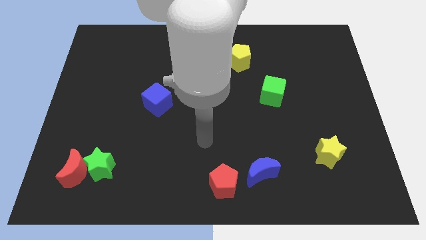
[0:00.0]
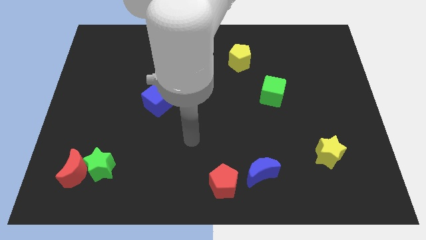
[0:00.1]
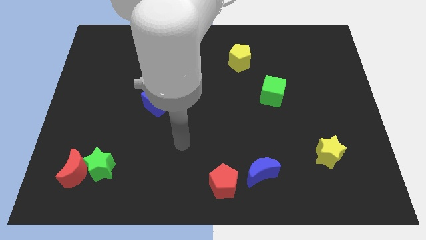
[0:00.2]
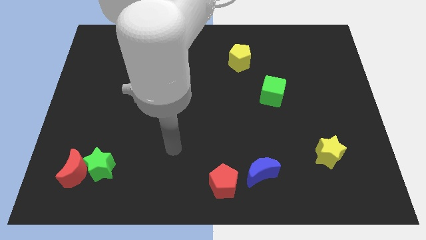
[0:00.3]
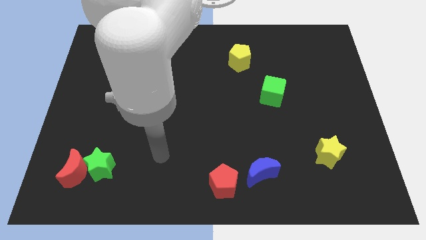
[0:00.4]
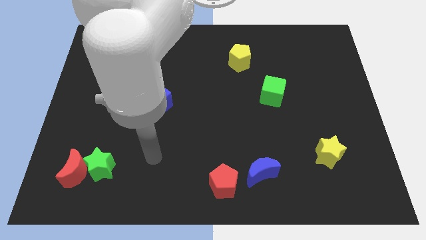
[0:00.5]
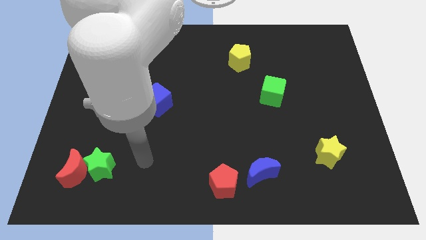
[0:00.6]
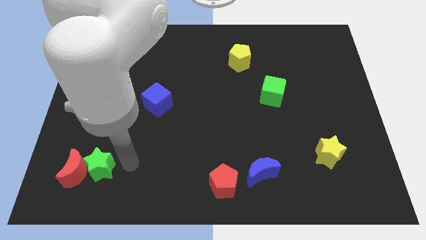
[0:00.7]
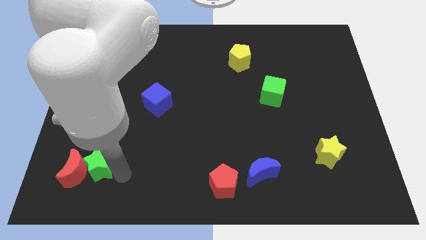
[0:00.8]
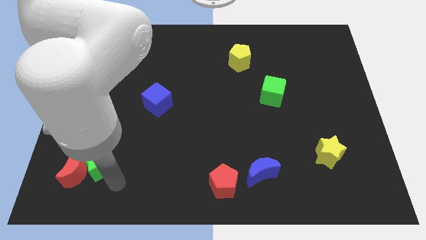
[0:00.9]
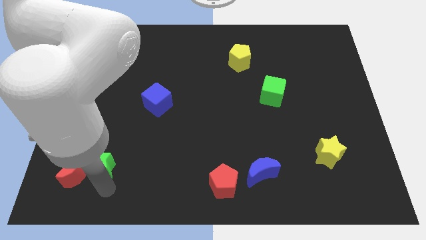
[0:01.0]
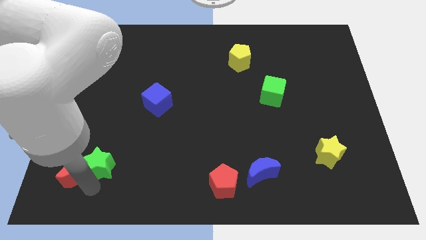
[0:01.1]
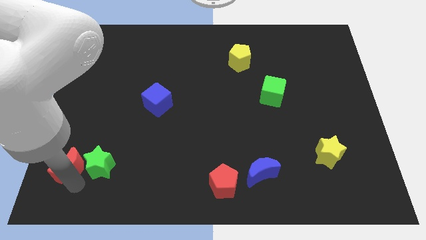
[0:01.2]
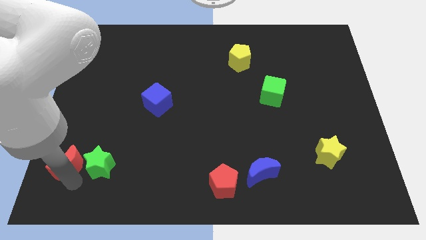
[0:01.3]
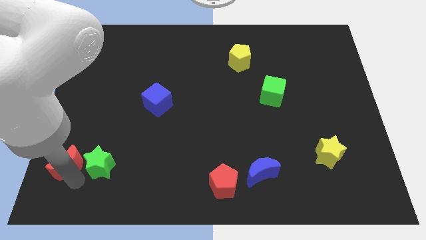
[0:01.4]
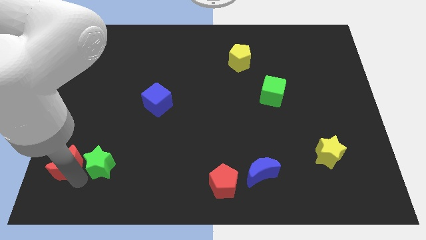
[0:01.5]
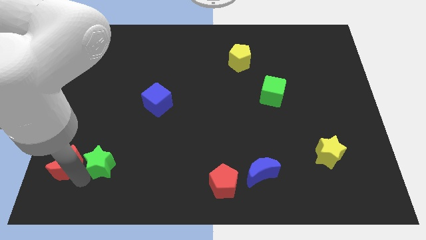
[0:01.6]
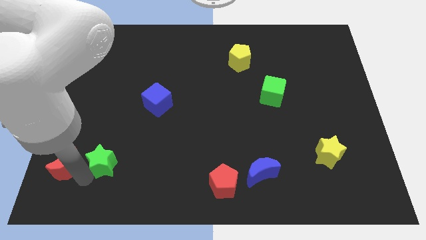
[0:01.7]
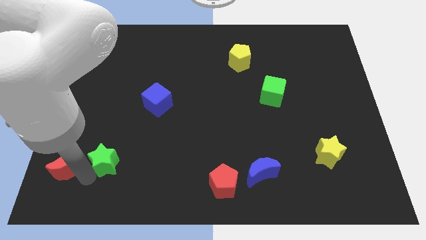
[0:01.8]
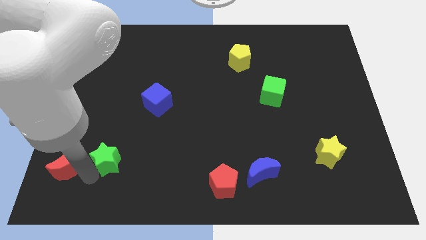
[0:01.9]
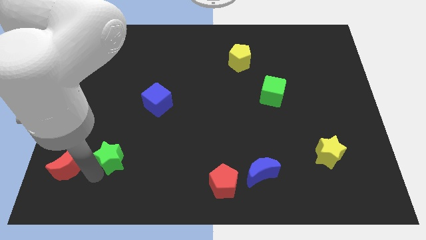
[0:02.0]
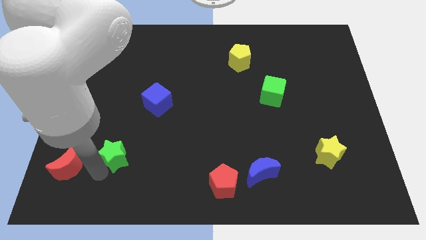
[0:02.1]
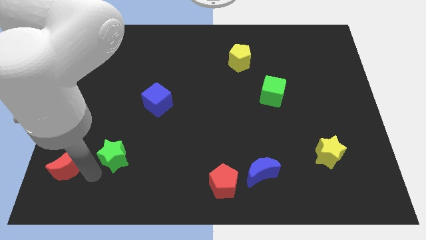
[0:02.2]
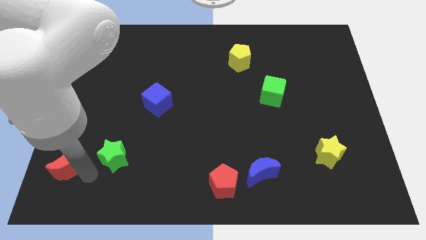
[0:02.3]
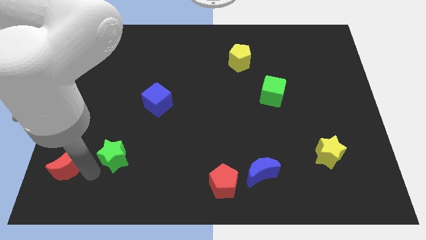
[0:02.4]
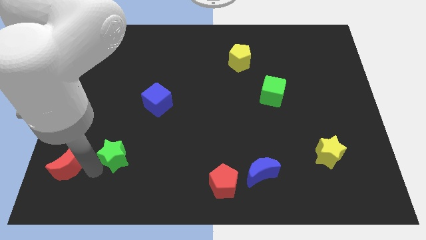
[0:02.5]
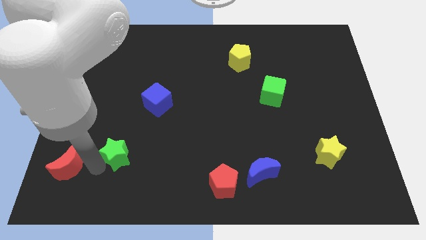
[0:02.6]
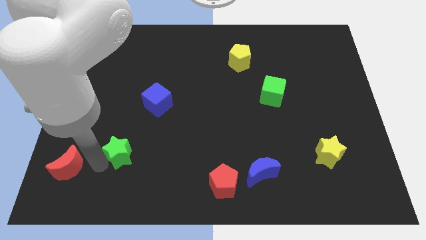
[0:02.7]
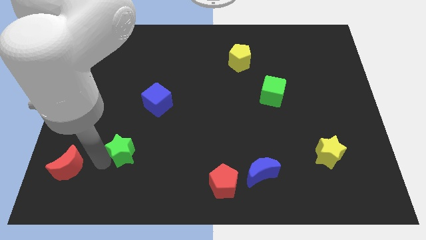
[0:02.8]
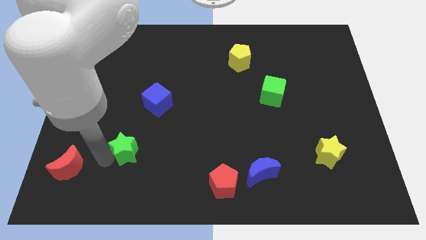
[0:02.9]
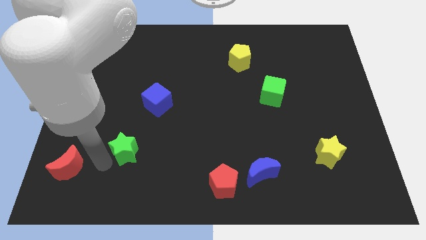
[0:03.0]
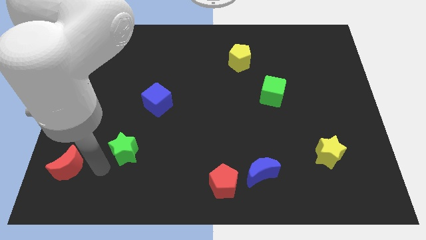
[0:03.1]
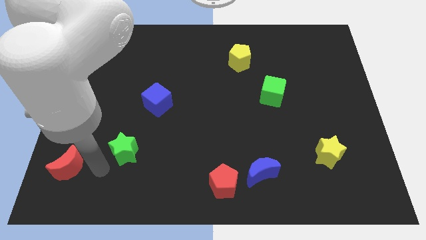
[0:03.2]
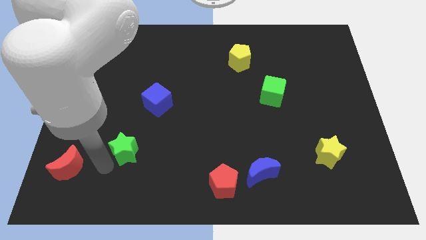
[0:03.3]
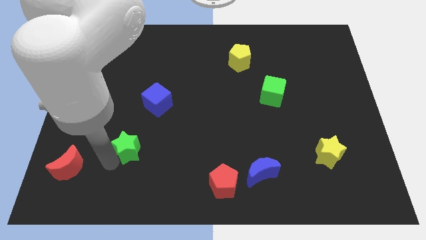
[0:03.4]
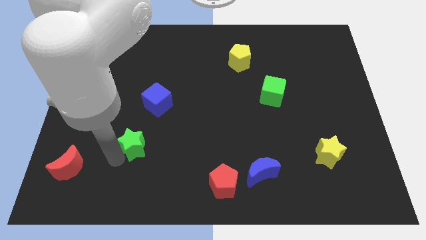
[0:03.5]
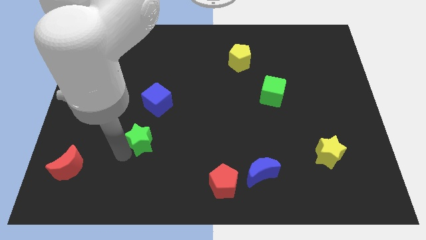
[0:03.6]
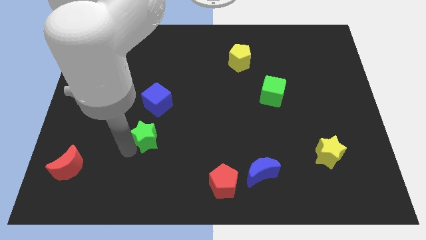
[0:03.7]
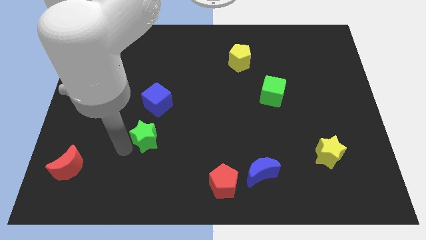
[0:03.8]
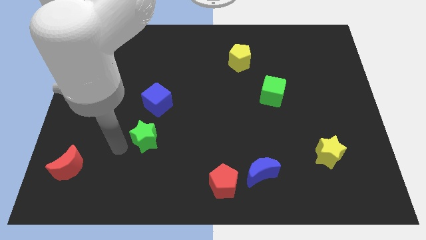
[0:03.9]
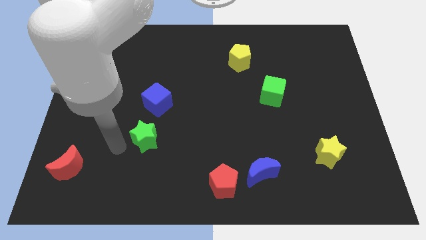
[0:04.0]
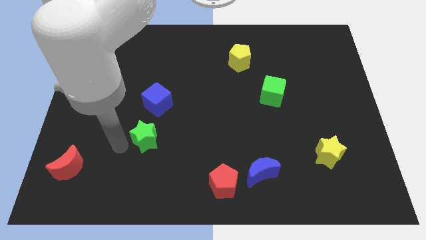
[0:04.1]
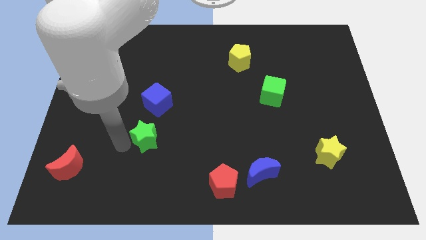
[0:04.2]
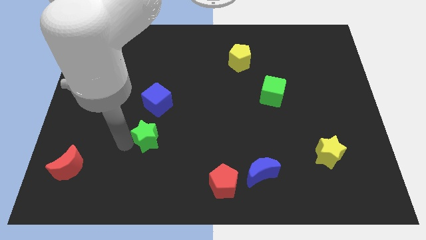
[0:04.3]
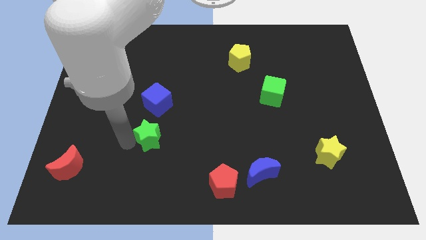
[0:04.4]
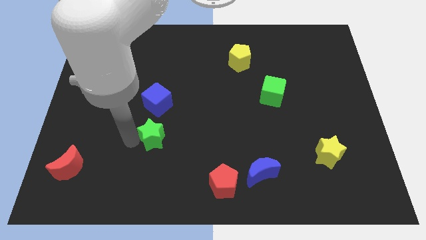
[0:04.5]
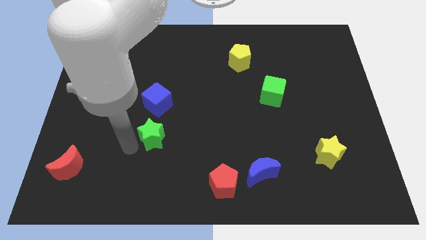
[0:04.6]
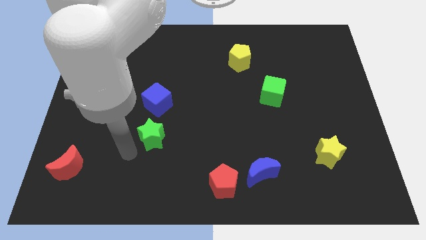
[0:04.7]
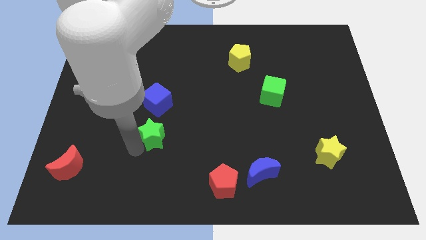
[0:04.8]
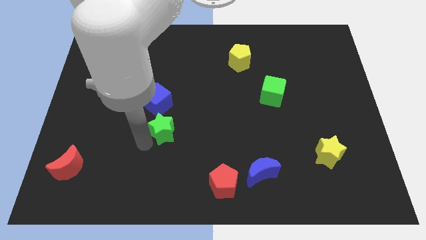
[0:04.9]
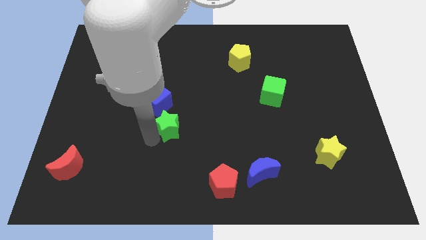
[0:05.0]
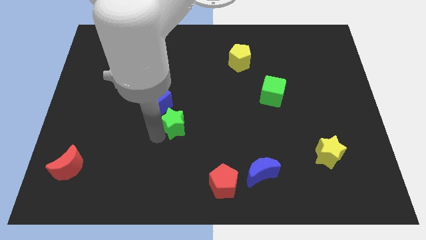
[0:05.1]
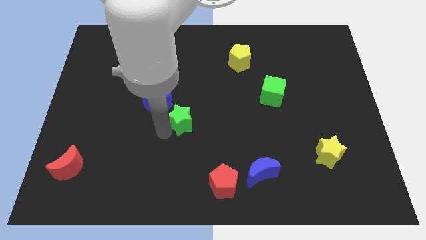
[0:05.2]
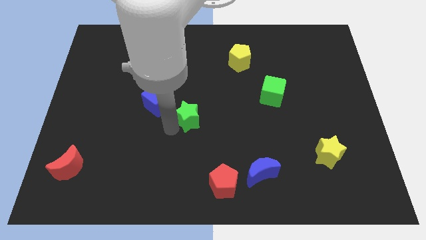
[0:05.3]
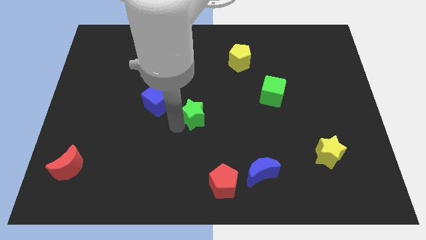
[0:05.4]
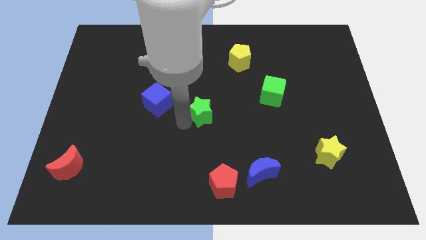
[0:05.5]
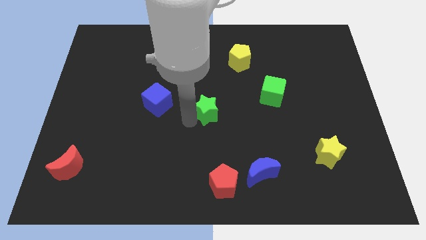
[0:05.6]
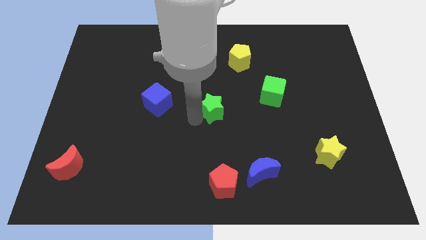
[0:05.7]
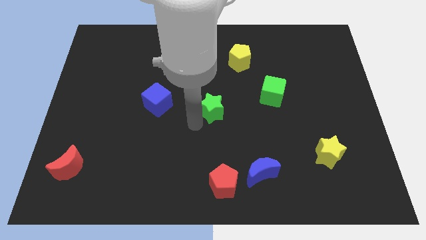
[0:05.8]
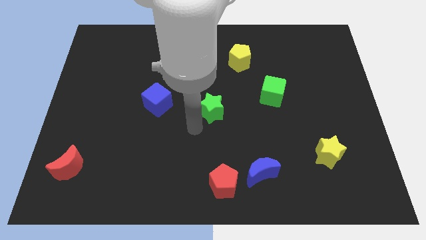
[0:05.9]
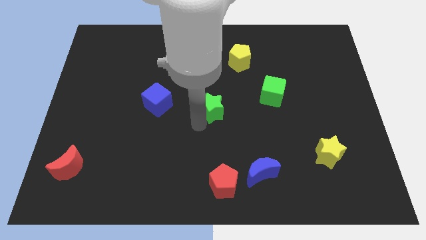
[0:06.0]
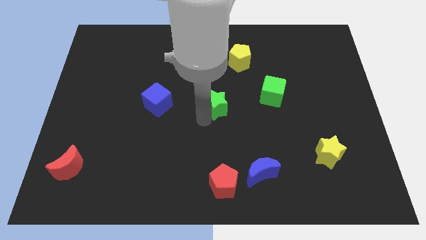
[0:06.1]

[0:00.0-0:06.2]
push the green star to the left side of the green cube

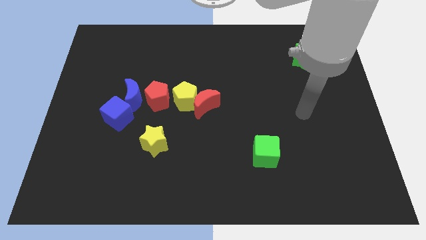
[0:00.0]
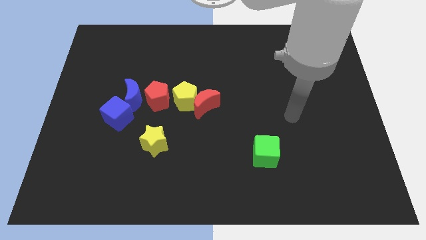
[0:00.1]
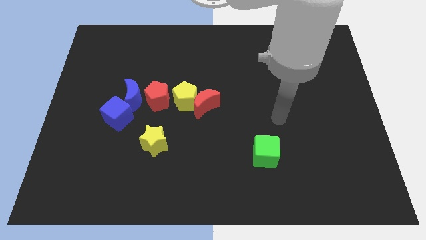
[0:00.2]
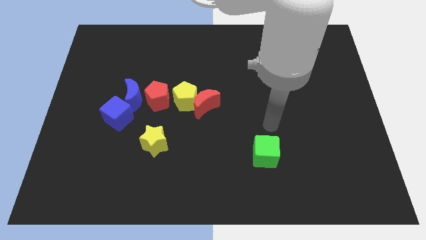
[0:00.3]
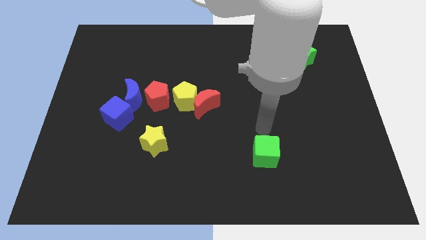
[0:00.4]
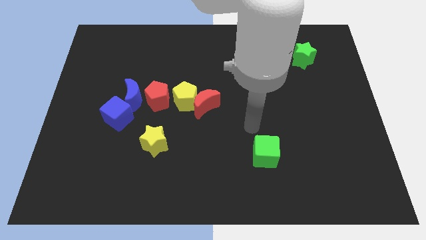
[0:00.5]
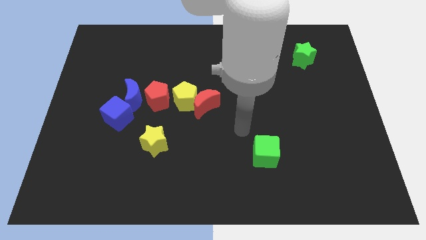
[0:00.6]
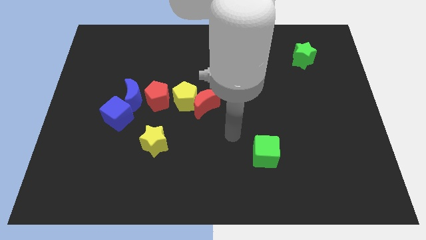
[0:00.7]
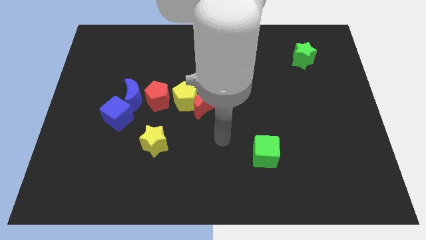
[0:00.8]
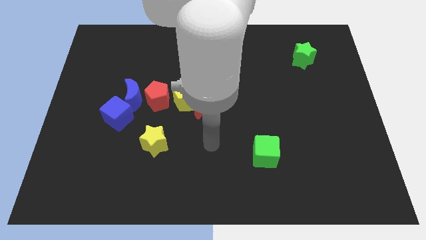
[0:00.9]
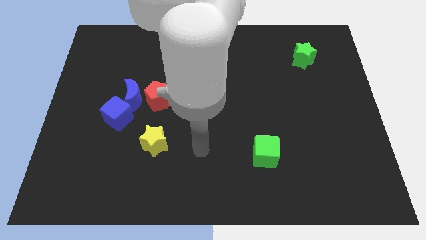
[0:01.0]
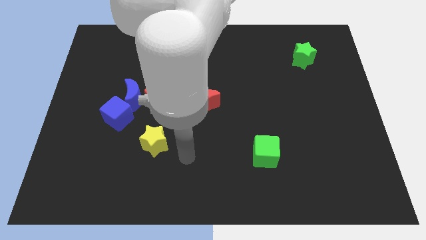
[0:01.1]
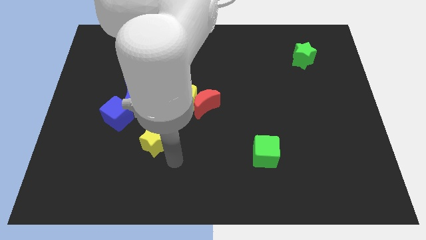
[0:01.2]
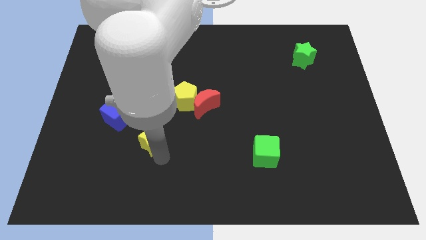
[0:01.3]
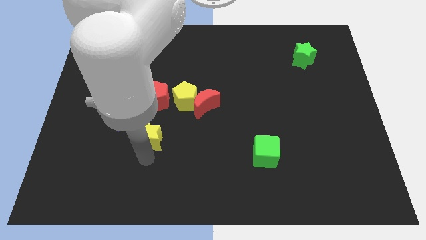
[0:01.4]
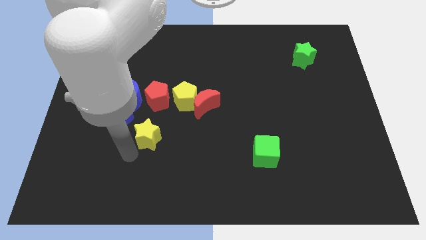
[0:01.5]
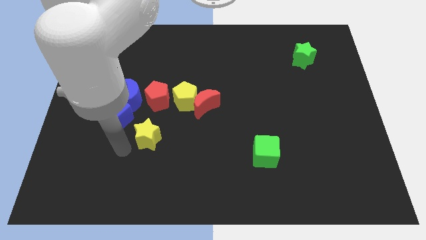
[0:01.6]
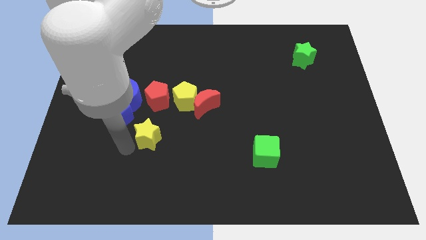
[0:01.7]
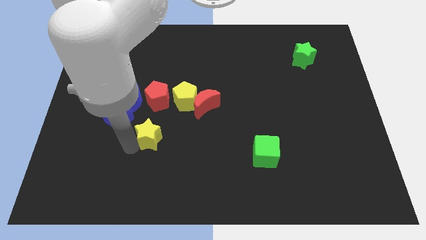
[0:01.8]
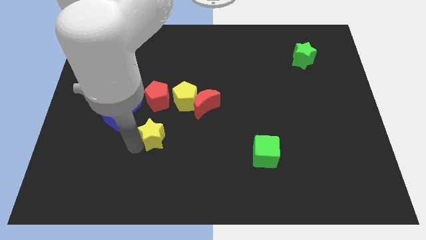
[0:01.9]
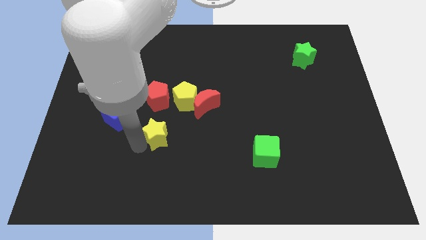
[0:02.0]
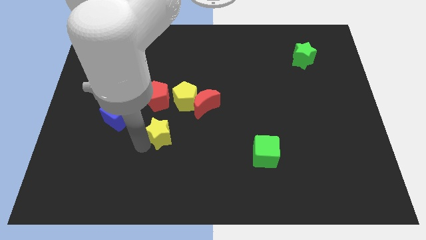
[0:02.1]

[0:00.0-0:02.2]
put the yellow star to the bottom left of the red moon
